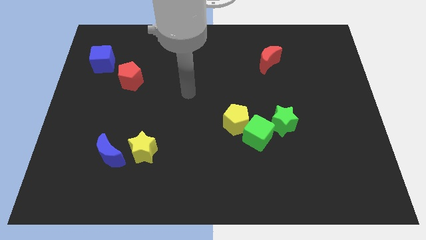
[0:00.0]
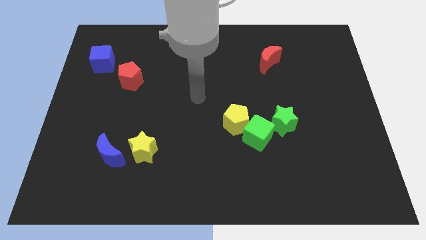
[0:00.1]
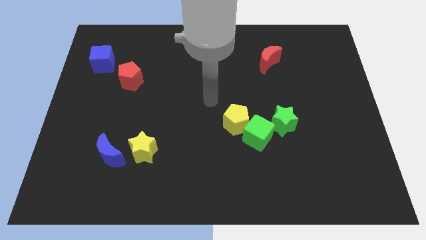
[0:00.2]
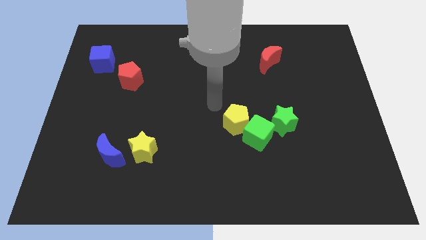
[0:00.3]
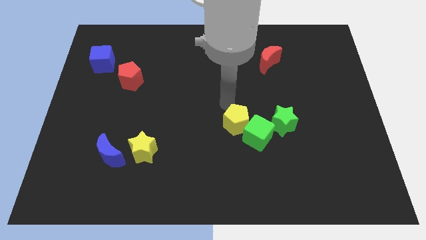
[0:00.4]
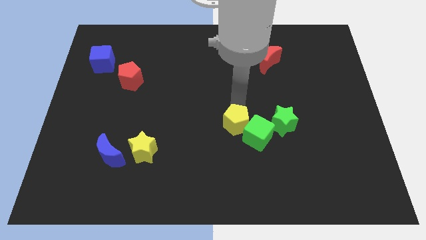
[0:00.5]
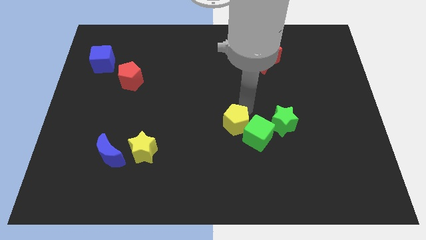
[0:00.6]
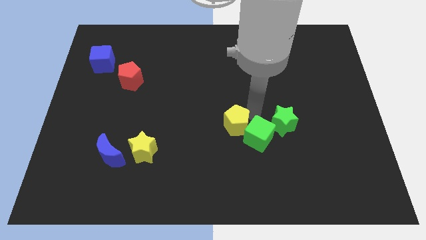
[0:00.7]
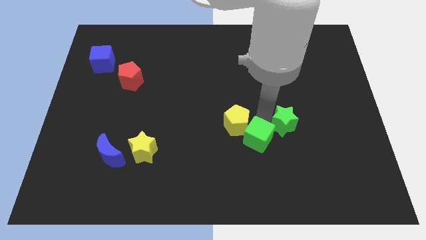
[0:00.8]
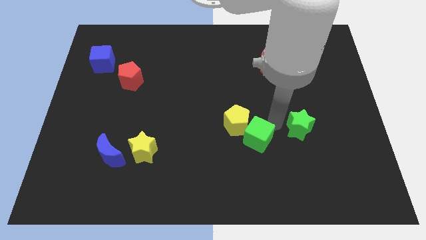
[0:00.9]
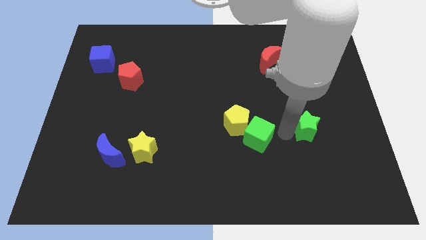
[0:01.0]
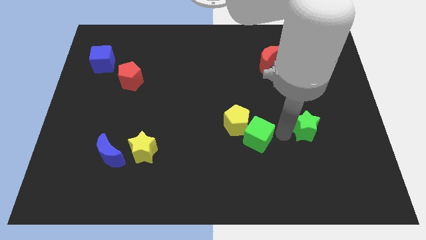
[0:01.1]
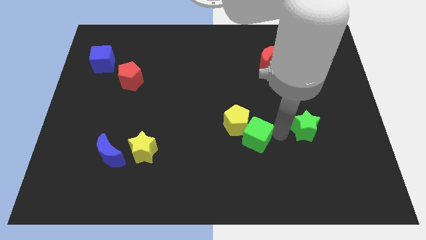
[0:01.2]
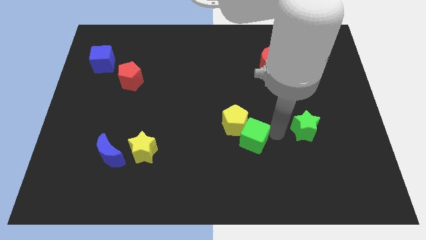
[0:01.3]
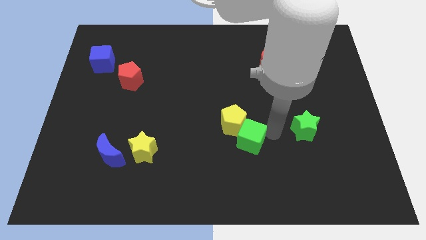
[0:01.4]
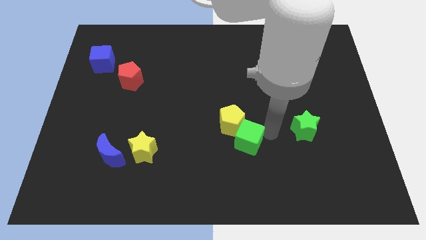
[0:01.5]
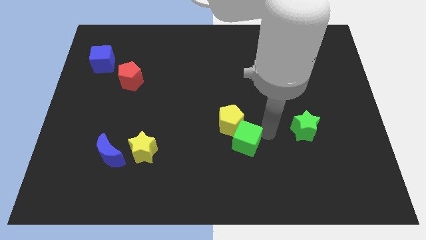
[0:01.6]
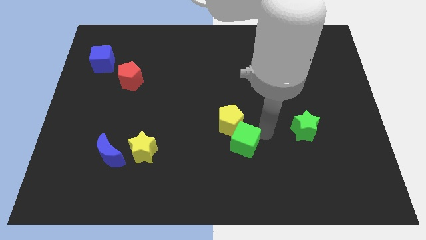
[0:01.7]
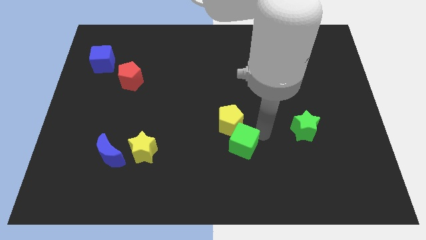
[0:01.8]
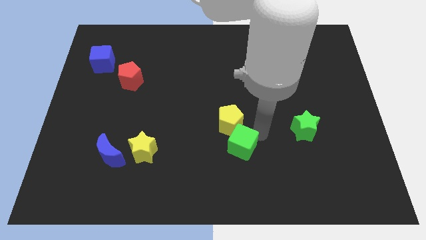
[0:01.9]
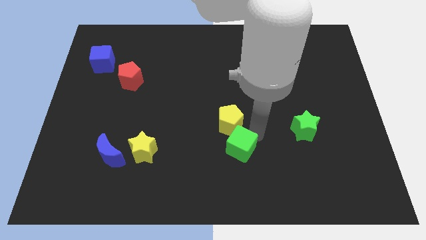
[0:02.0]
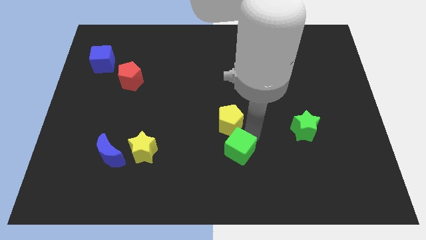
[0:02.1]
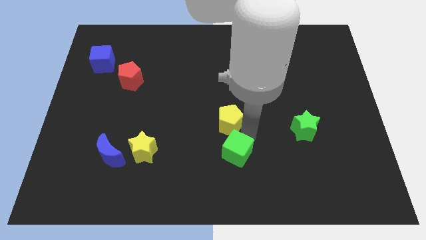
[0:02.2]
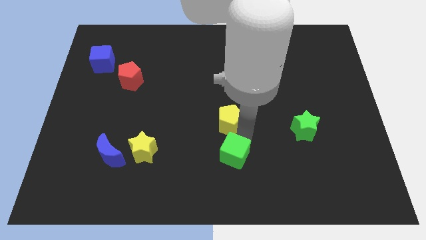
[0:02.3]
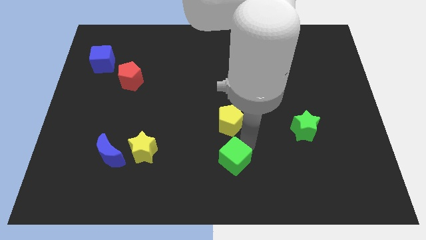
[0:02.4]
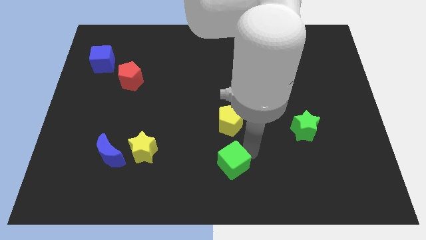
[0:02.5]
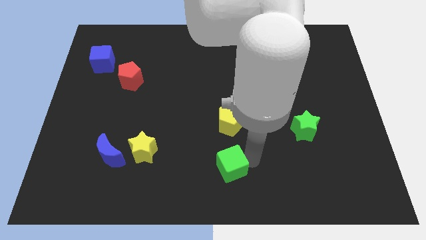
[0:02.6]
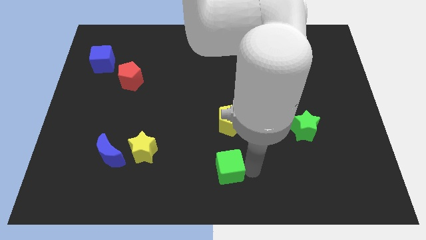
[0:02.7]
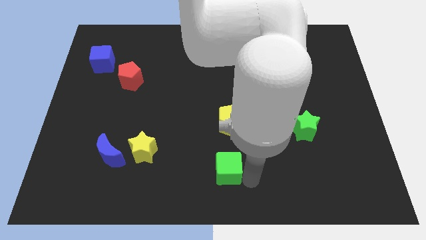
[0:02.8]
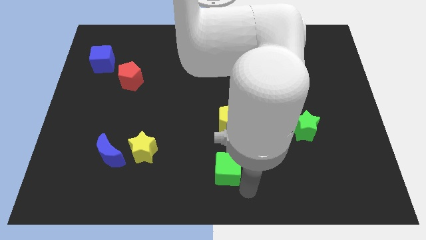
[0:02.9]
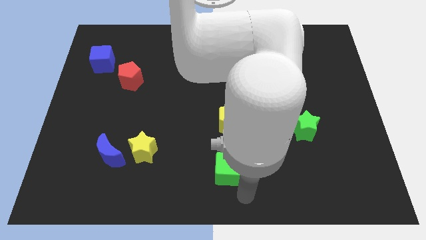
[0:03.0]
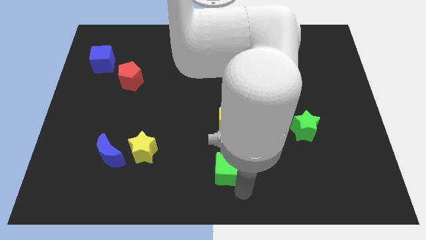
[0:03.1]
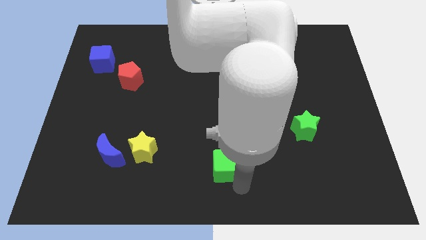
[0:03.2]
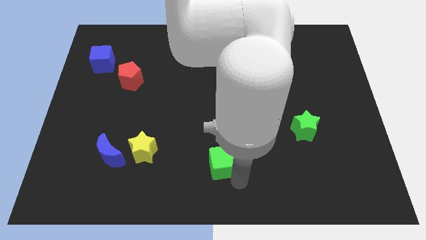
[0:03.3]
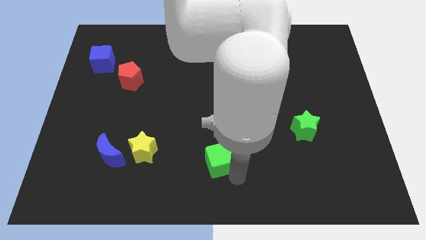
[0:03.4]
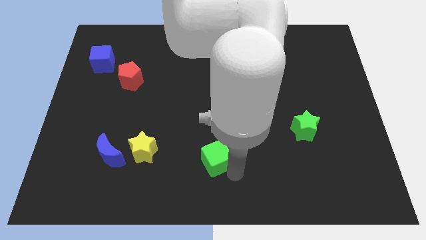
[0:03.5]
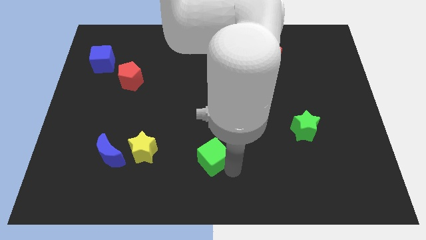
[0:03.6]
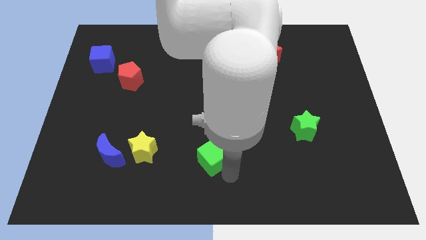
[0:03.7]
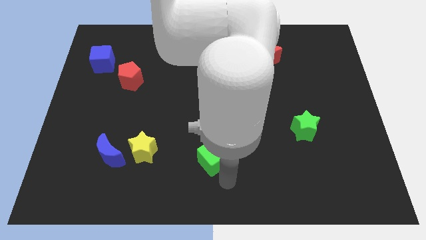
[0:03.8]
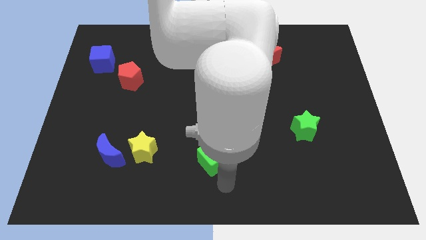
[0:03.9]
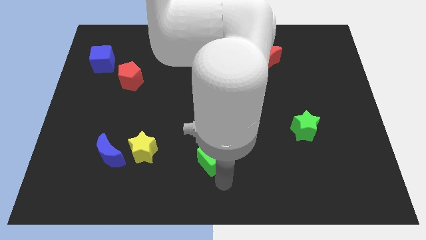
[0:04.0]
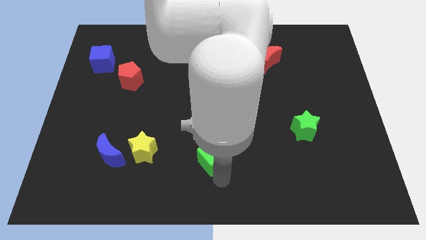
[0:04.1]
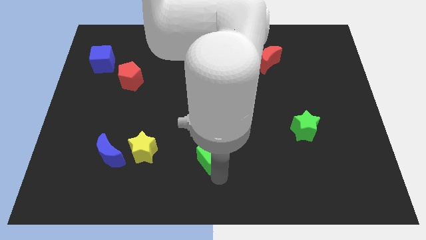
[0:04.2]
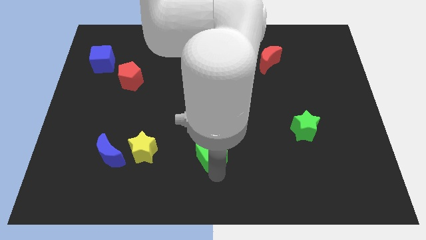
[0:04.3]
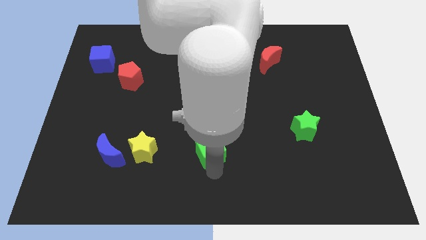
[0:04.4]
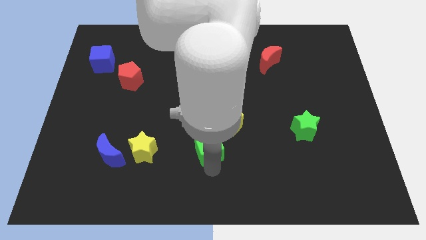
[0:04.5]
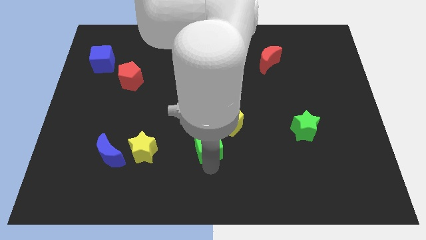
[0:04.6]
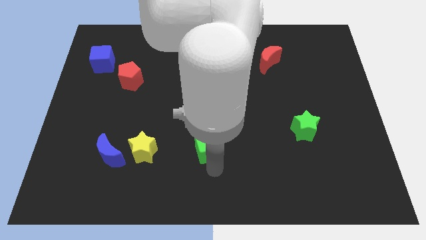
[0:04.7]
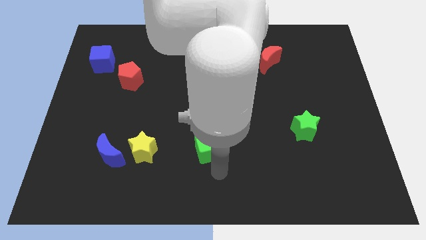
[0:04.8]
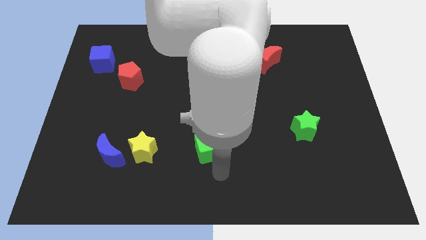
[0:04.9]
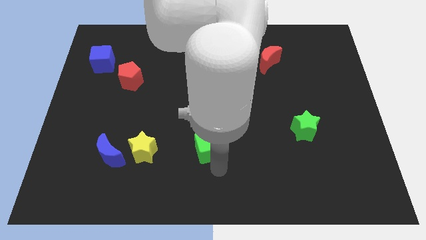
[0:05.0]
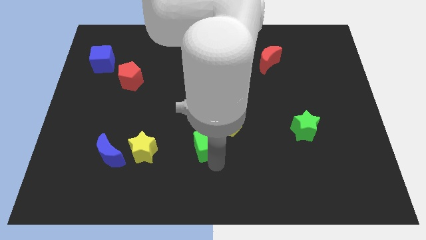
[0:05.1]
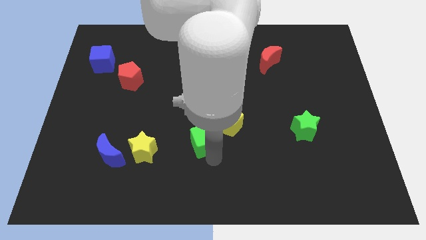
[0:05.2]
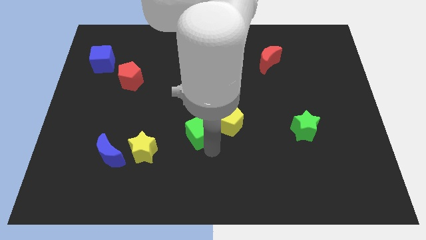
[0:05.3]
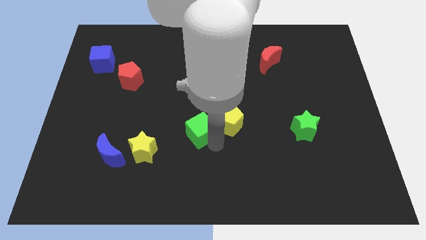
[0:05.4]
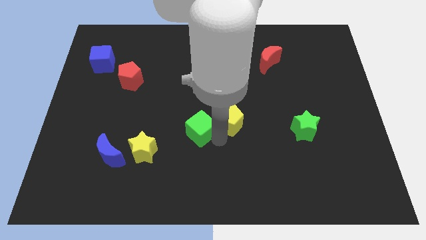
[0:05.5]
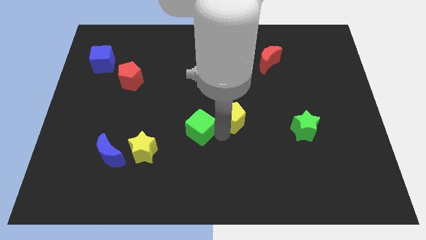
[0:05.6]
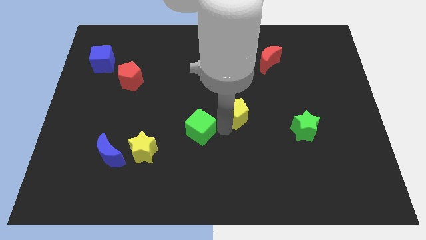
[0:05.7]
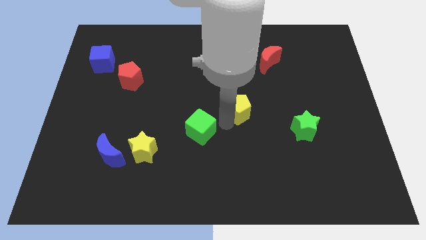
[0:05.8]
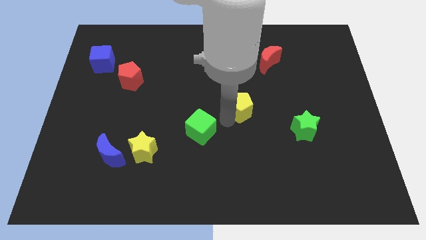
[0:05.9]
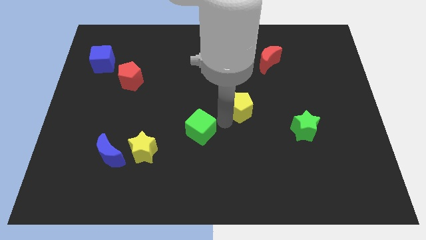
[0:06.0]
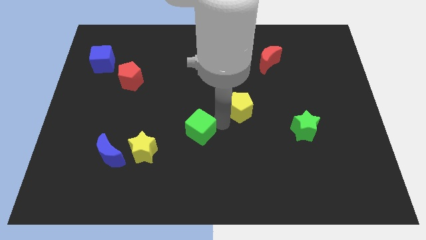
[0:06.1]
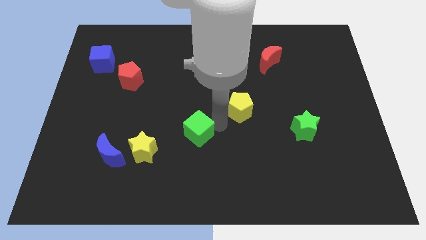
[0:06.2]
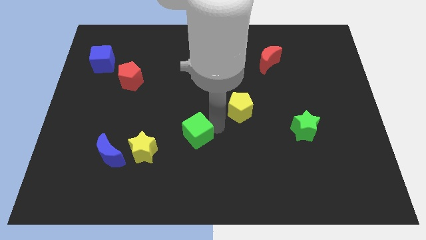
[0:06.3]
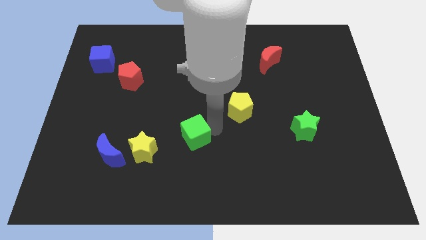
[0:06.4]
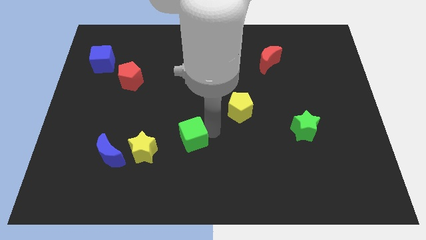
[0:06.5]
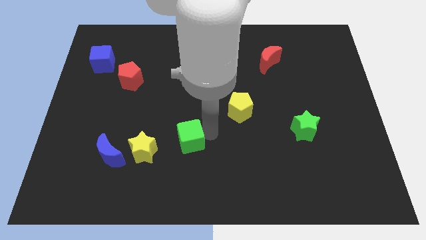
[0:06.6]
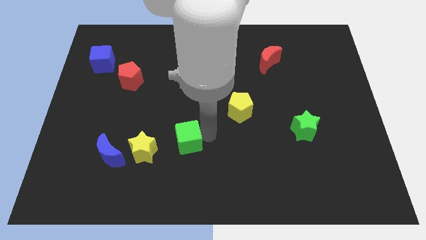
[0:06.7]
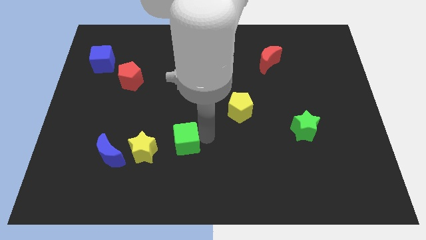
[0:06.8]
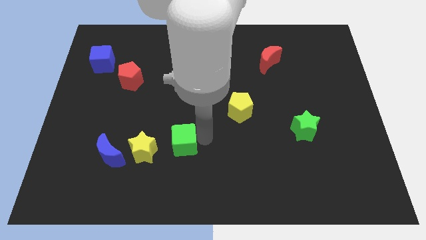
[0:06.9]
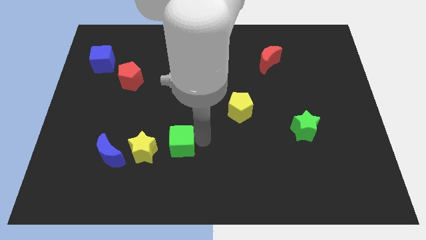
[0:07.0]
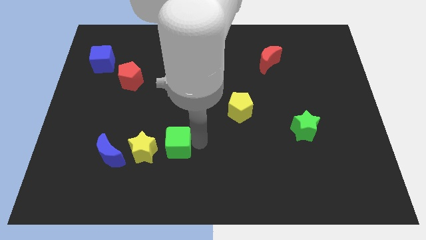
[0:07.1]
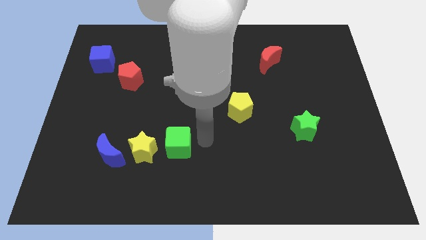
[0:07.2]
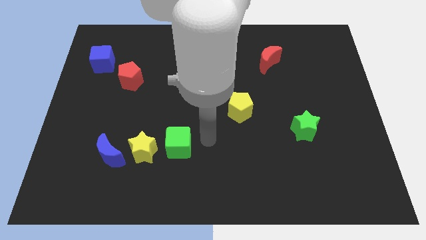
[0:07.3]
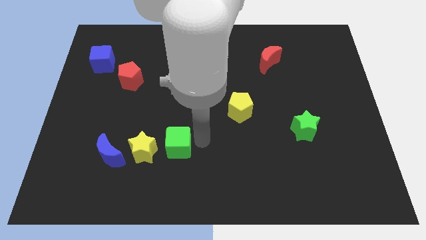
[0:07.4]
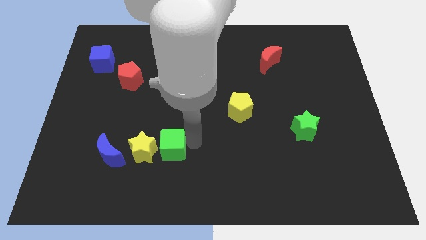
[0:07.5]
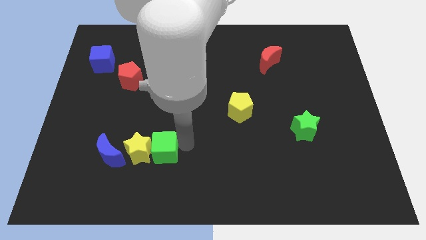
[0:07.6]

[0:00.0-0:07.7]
move the green cube next to the yellow star
